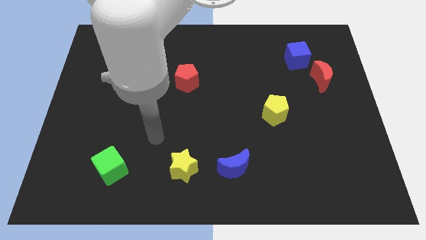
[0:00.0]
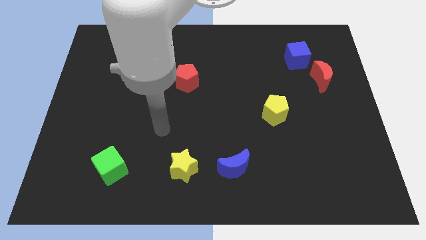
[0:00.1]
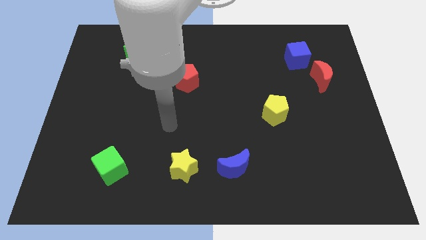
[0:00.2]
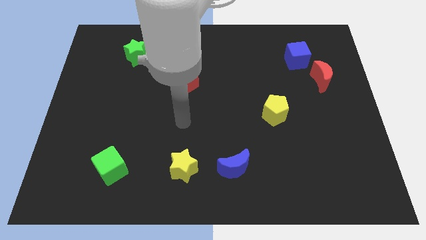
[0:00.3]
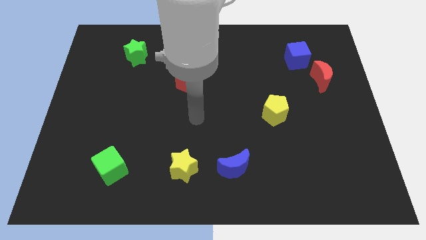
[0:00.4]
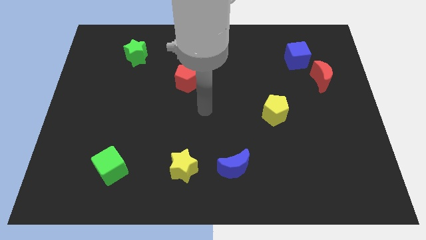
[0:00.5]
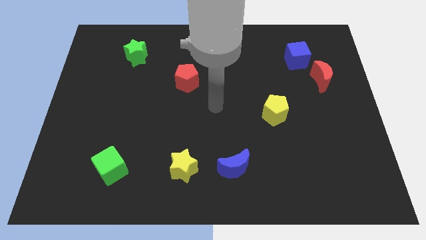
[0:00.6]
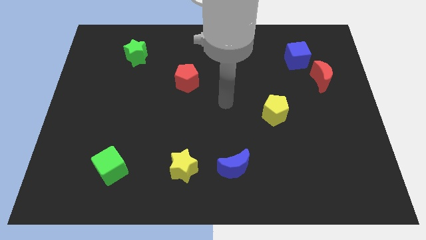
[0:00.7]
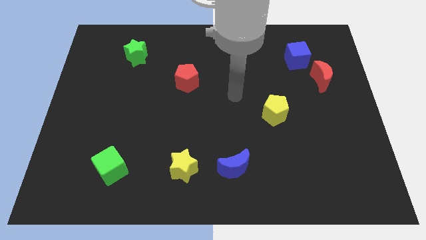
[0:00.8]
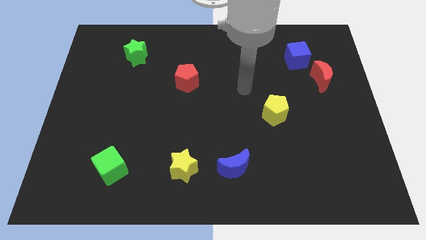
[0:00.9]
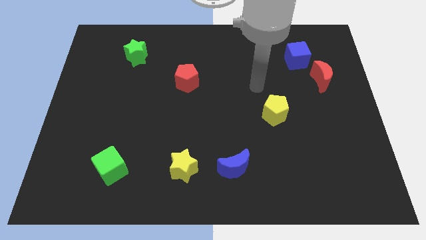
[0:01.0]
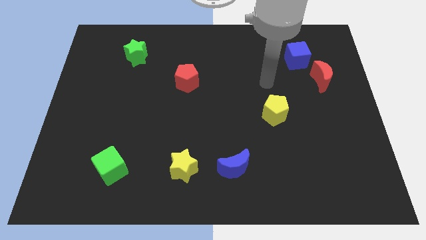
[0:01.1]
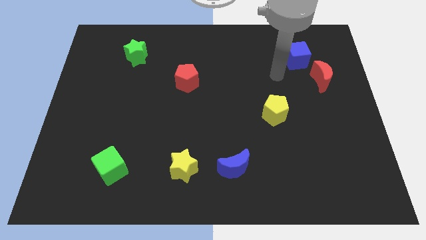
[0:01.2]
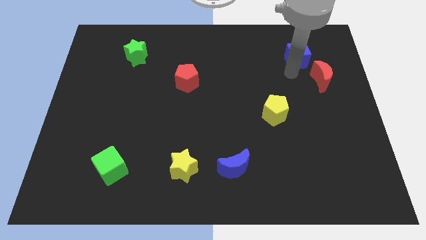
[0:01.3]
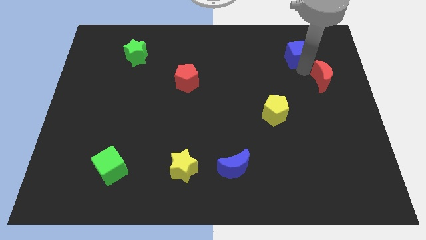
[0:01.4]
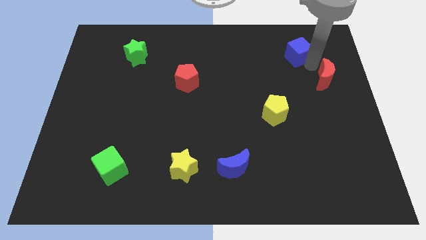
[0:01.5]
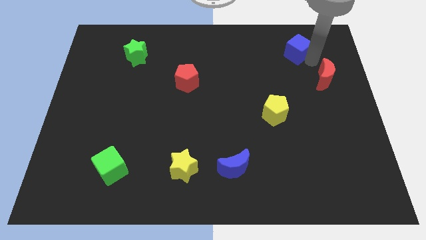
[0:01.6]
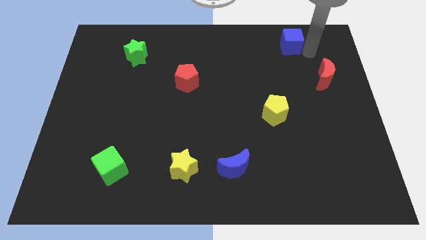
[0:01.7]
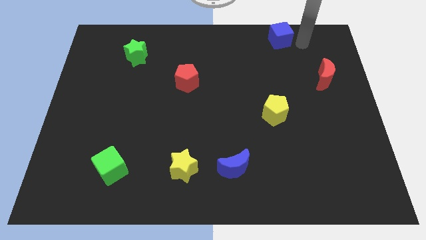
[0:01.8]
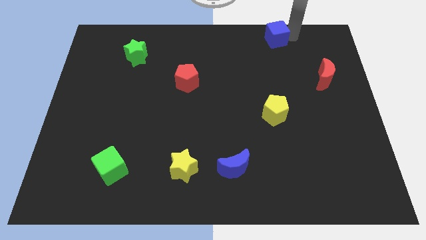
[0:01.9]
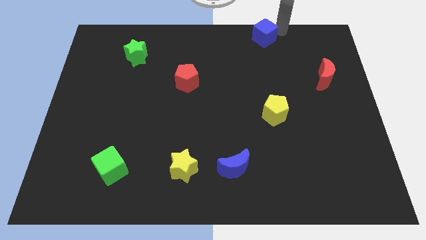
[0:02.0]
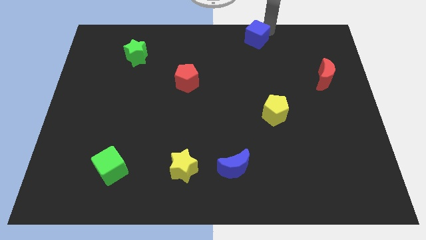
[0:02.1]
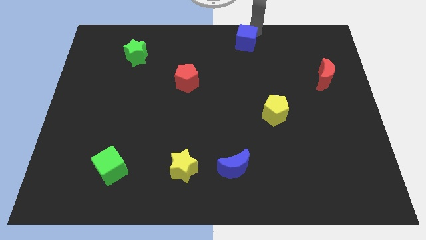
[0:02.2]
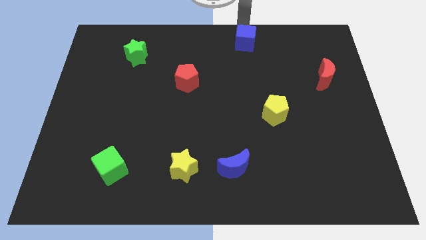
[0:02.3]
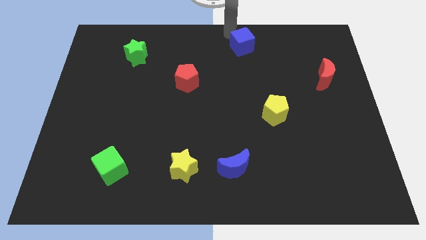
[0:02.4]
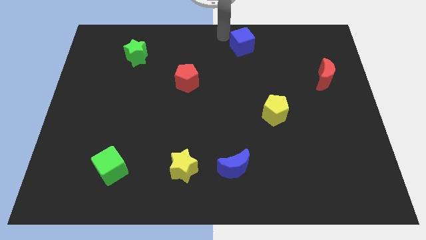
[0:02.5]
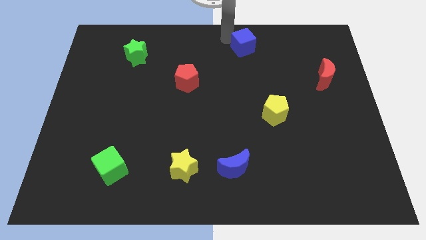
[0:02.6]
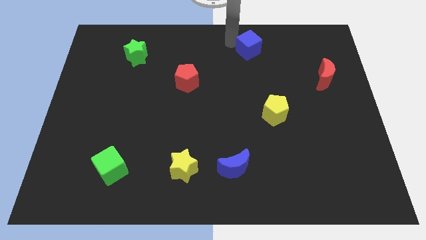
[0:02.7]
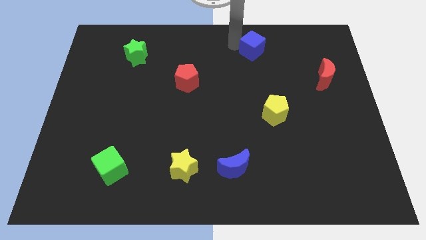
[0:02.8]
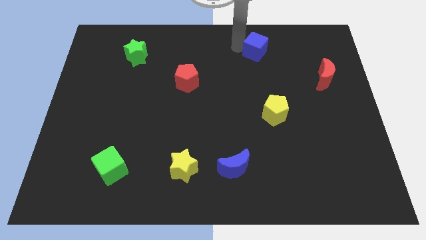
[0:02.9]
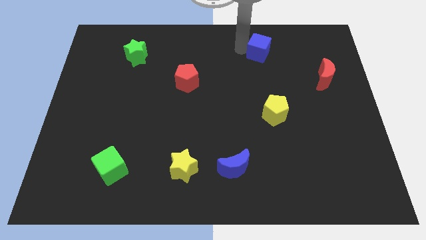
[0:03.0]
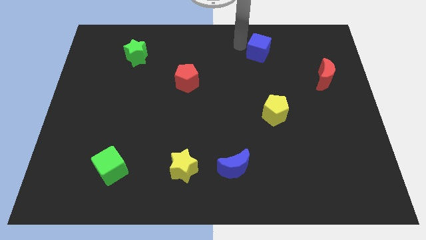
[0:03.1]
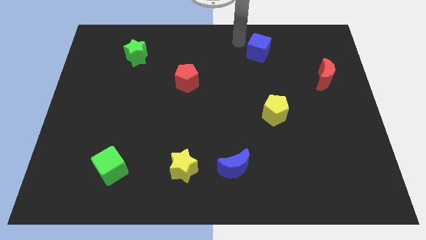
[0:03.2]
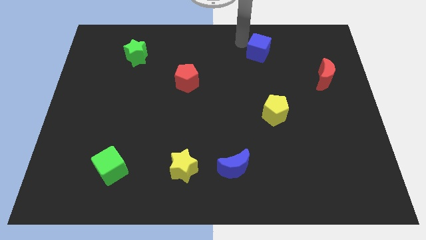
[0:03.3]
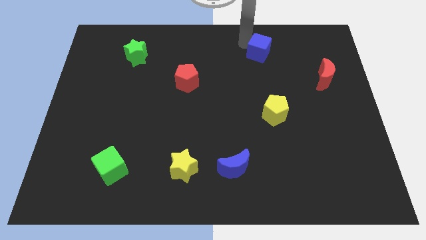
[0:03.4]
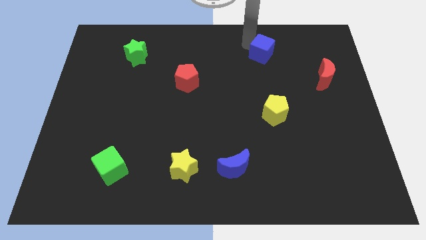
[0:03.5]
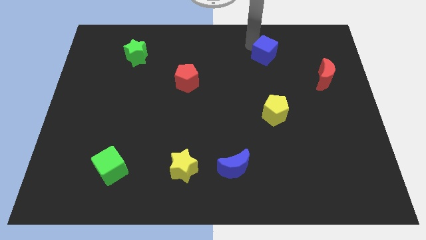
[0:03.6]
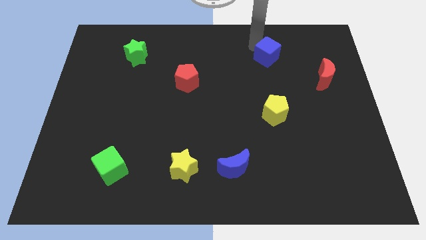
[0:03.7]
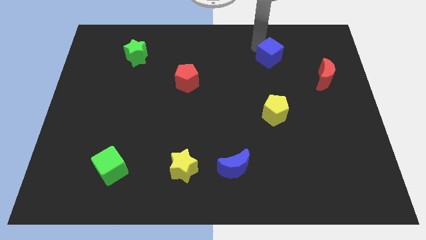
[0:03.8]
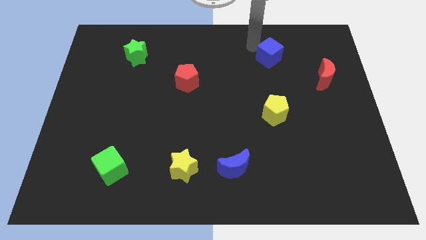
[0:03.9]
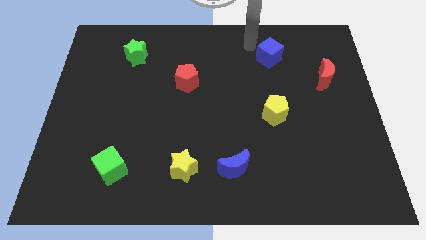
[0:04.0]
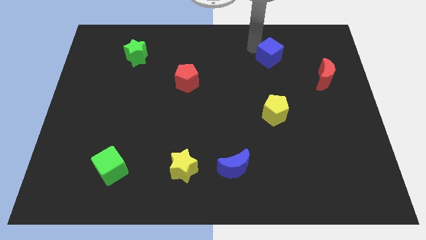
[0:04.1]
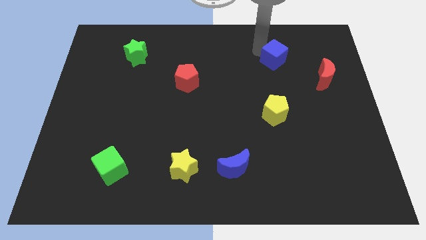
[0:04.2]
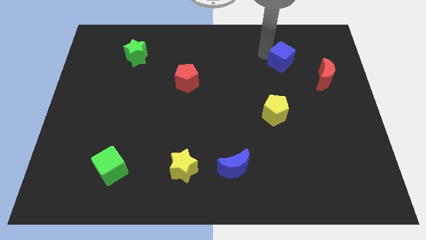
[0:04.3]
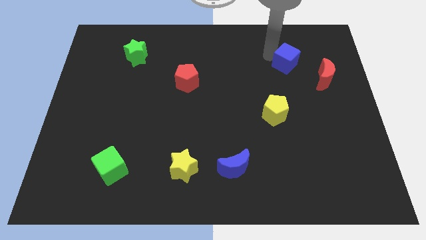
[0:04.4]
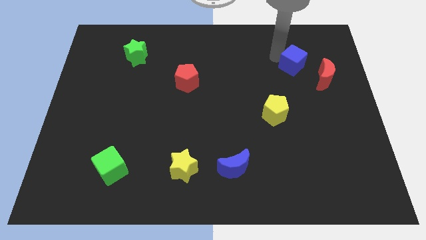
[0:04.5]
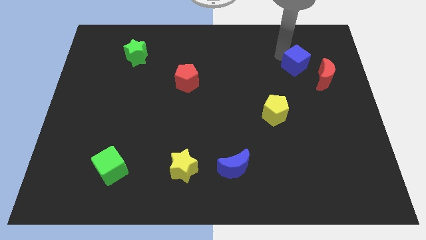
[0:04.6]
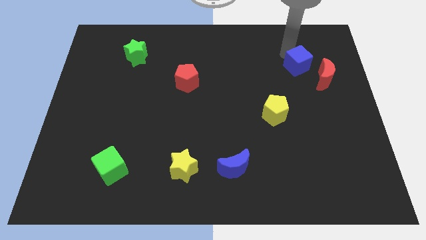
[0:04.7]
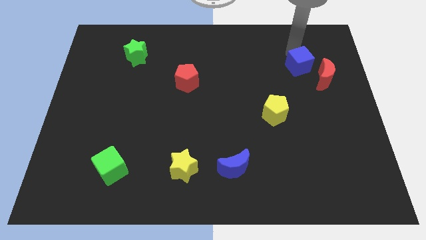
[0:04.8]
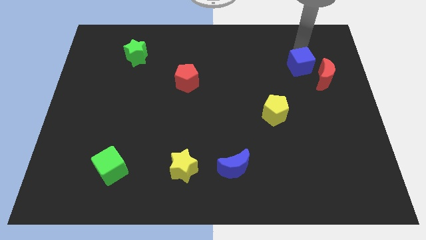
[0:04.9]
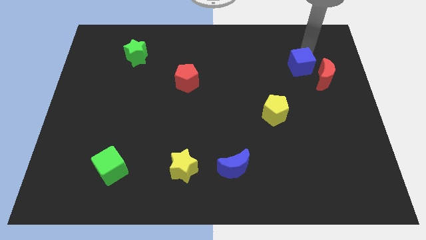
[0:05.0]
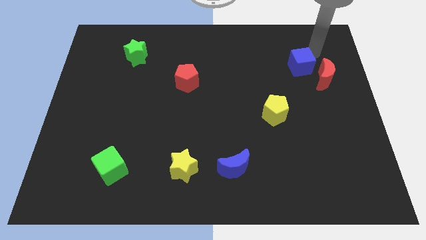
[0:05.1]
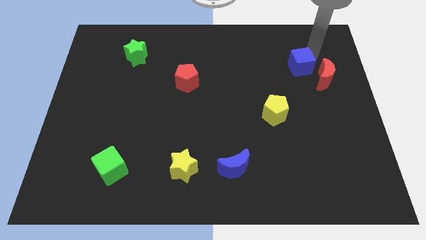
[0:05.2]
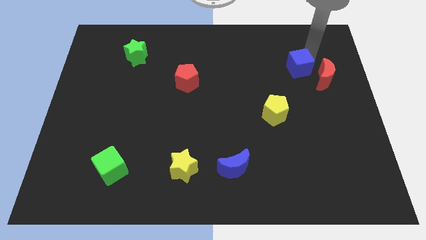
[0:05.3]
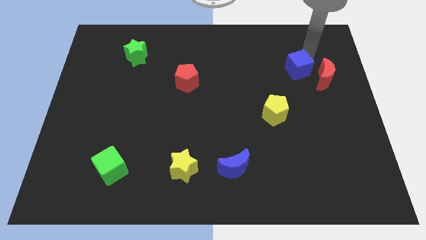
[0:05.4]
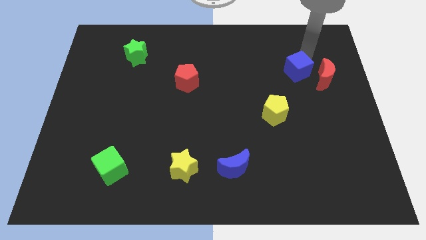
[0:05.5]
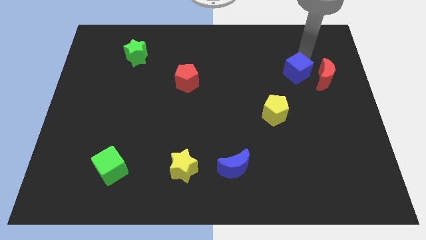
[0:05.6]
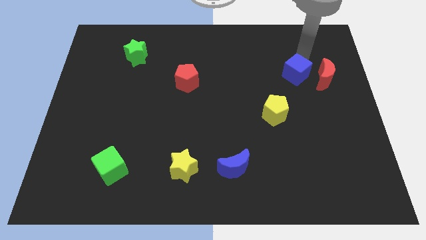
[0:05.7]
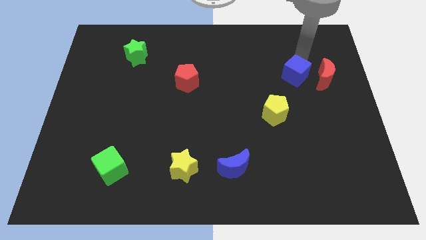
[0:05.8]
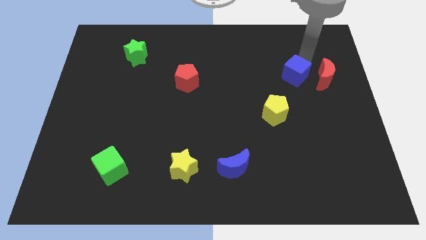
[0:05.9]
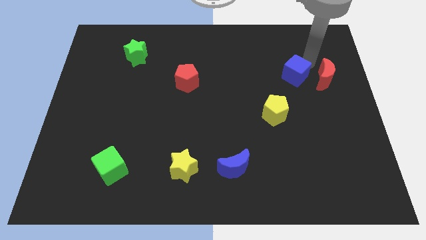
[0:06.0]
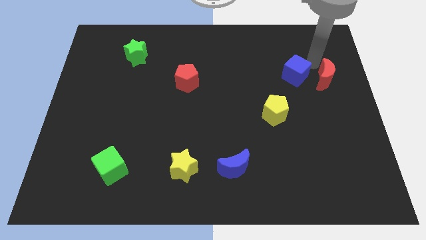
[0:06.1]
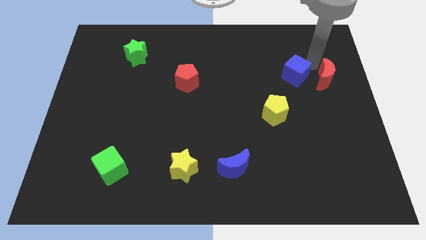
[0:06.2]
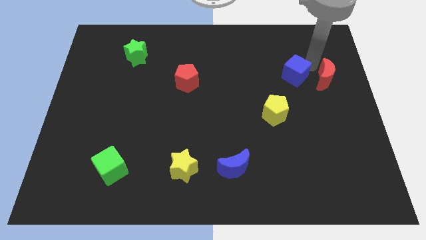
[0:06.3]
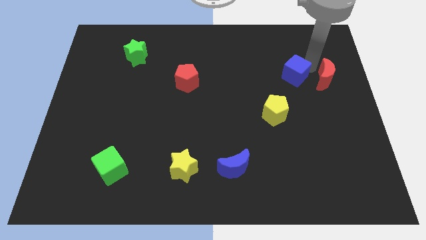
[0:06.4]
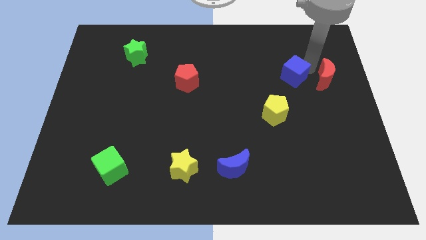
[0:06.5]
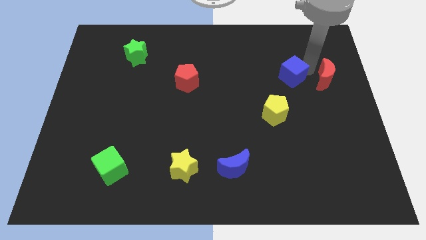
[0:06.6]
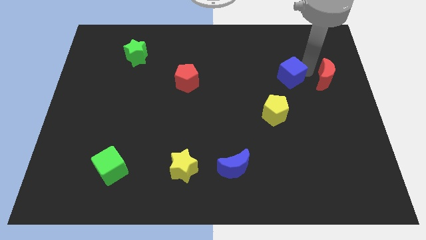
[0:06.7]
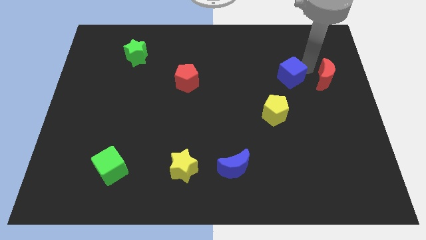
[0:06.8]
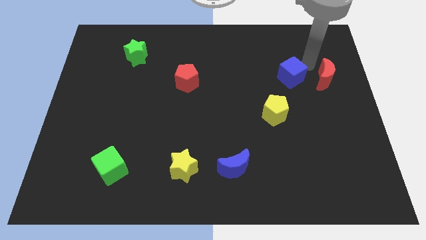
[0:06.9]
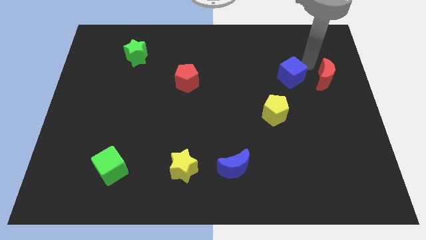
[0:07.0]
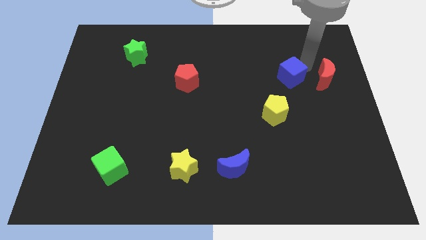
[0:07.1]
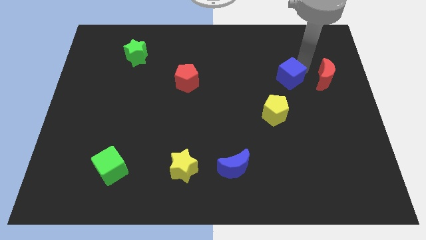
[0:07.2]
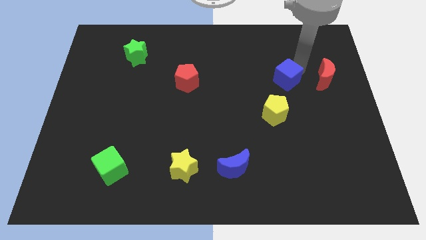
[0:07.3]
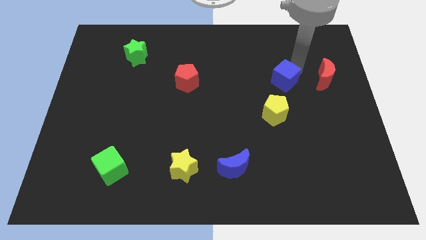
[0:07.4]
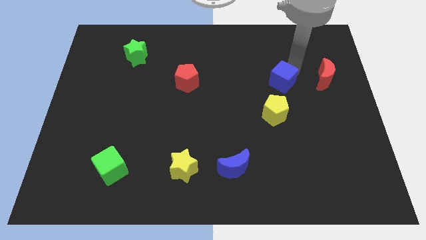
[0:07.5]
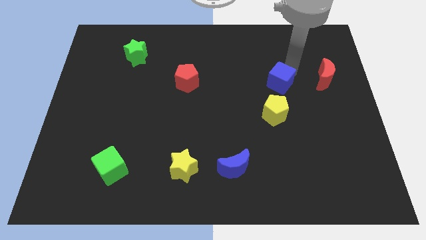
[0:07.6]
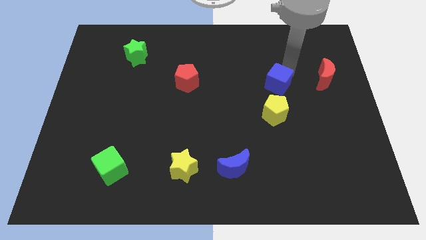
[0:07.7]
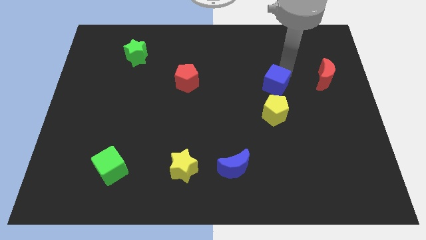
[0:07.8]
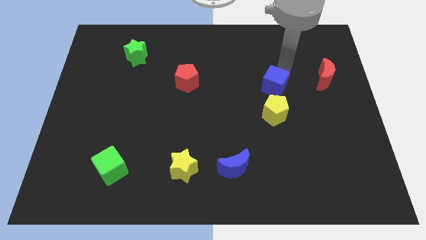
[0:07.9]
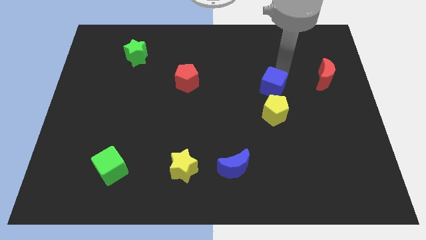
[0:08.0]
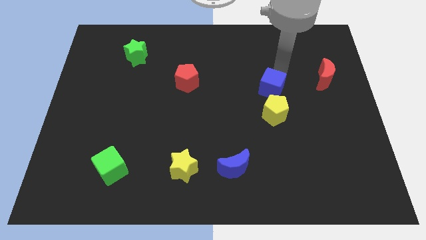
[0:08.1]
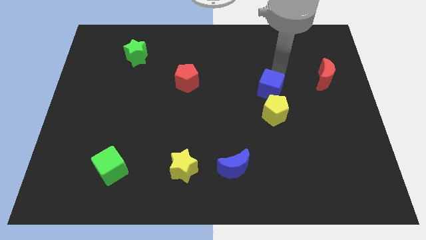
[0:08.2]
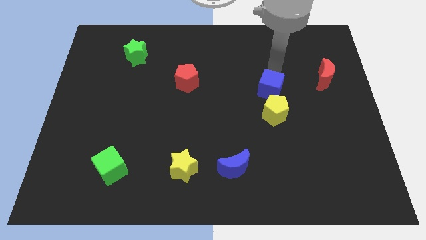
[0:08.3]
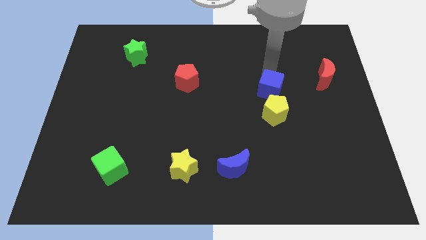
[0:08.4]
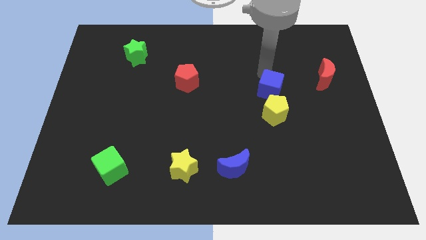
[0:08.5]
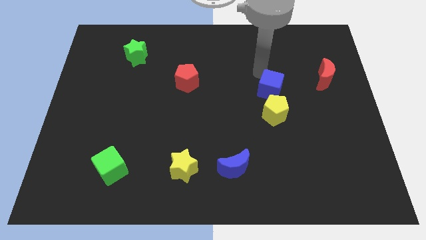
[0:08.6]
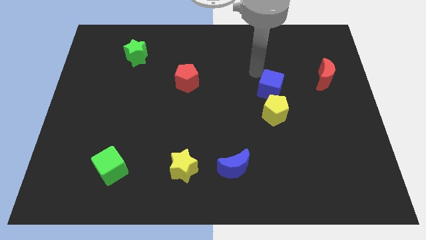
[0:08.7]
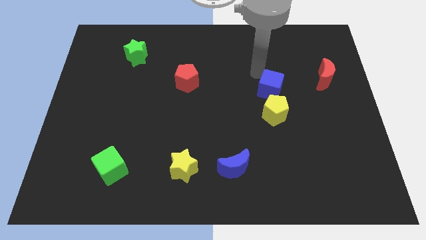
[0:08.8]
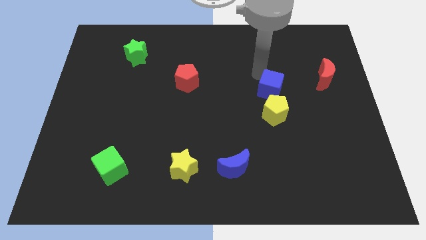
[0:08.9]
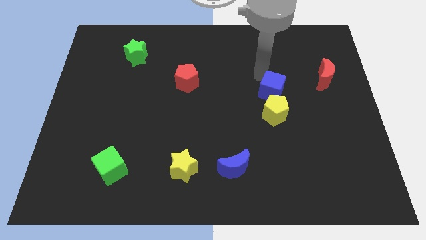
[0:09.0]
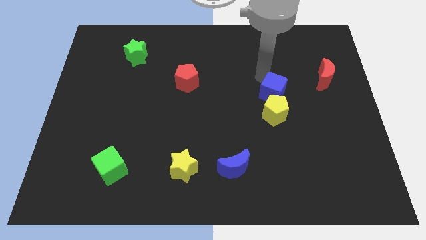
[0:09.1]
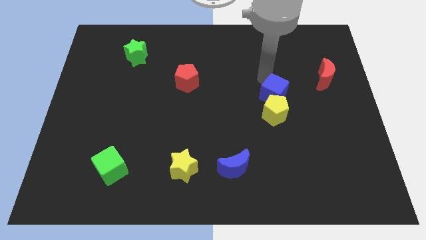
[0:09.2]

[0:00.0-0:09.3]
move the blue cube to the yellow pentagon
